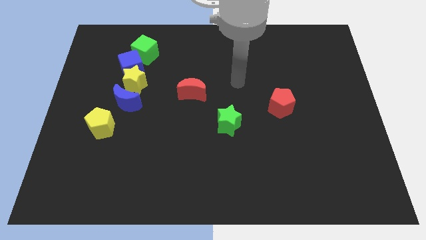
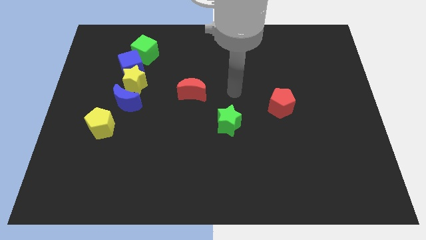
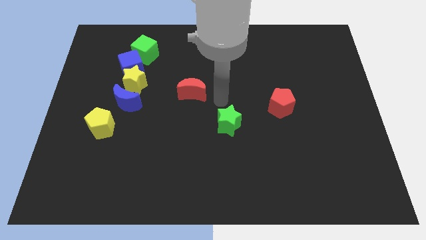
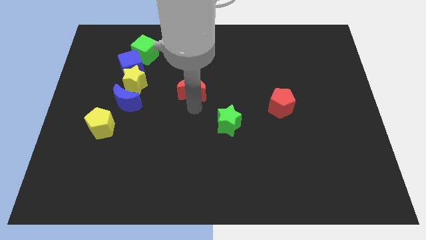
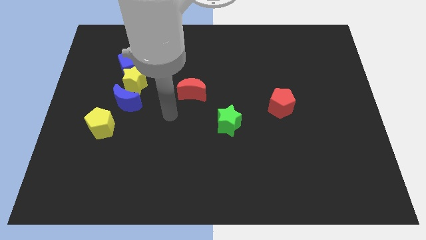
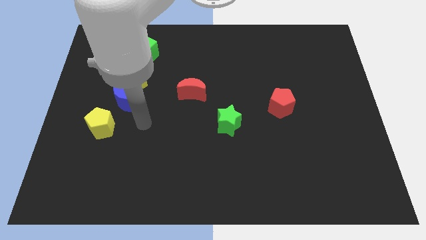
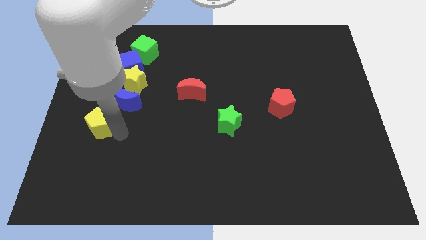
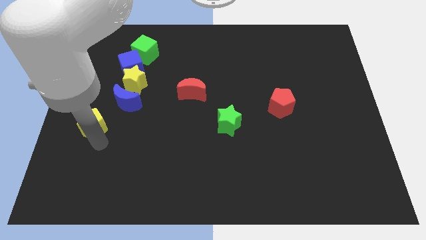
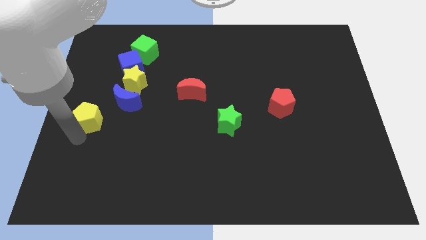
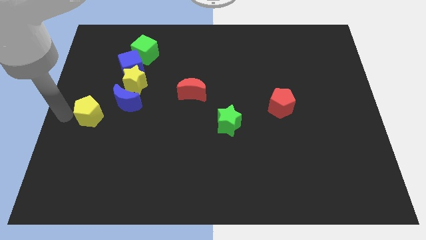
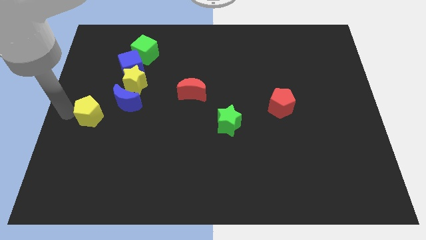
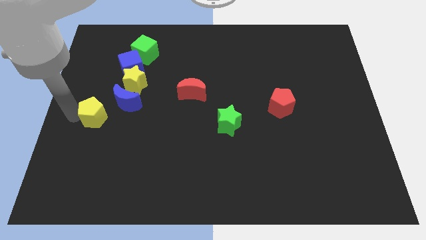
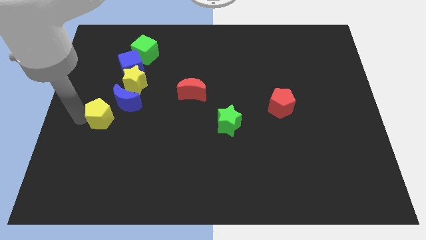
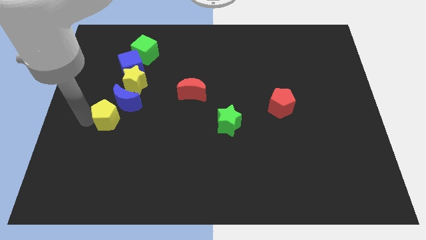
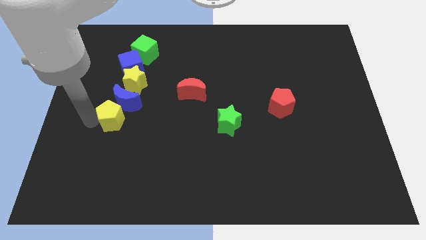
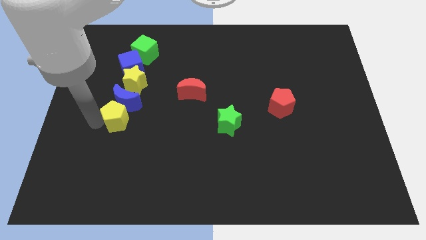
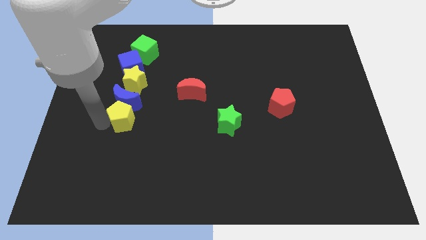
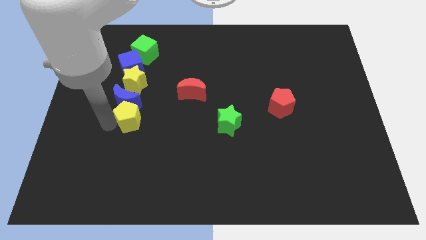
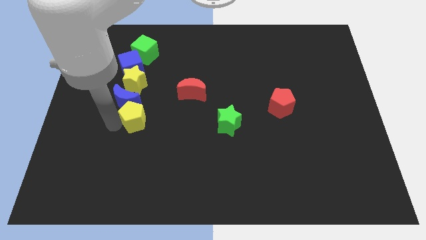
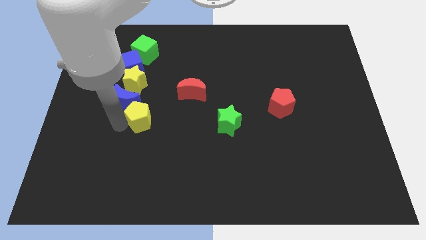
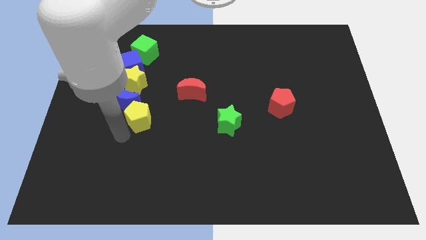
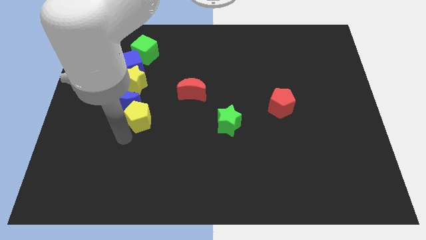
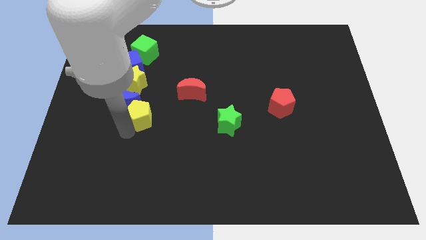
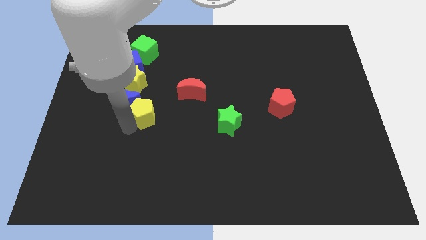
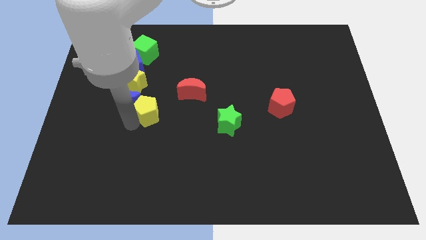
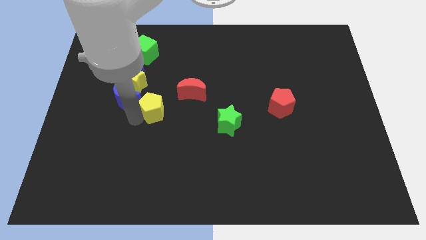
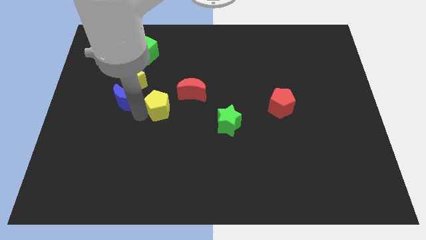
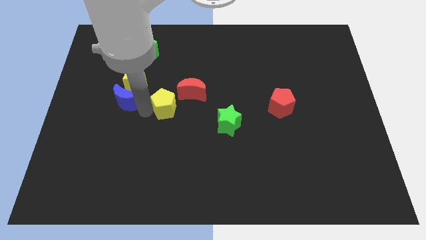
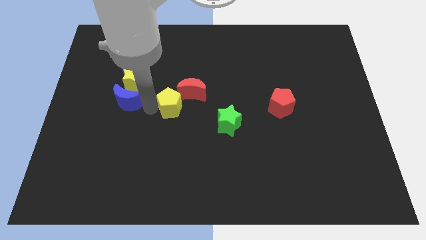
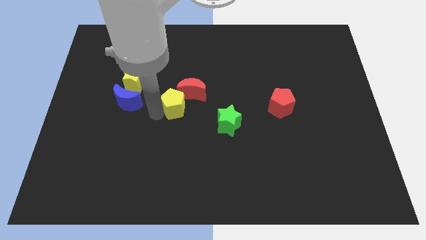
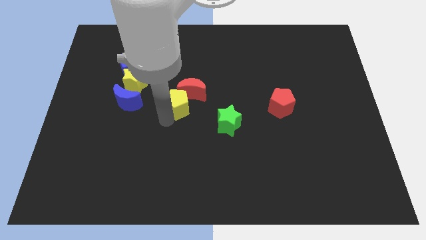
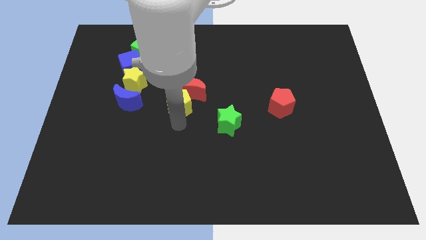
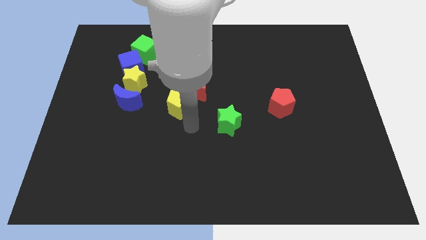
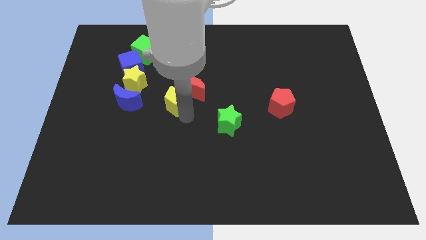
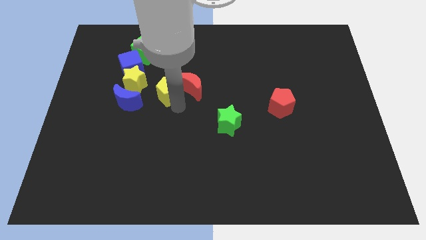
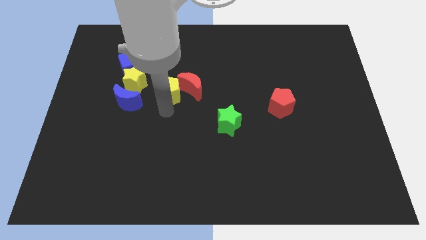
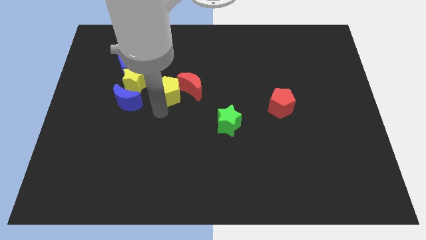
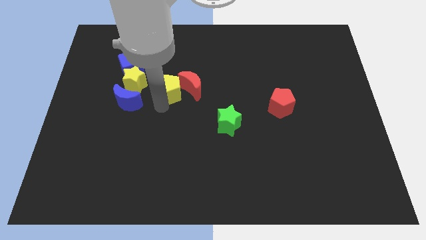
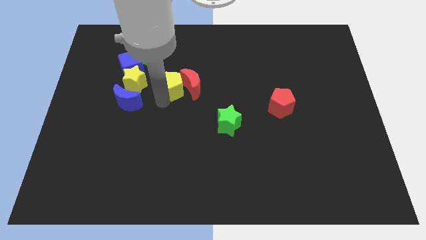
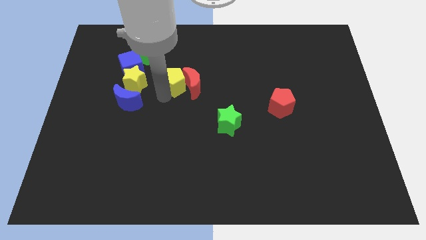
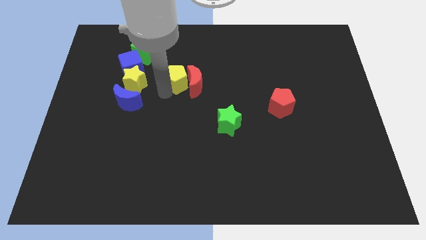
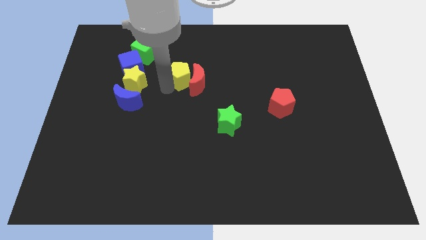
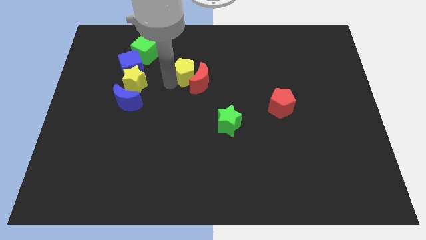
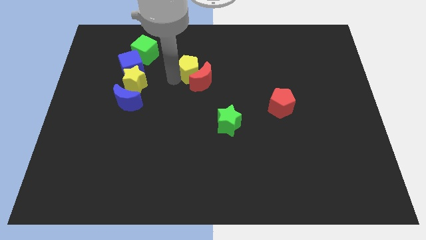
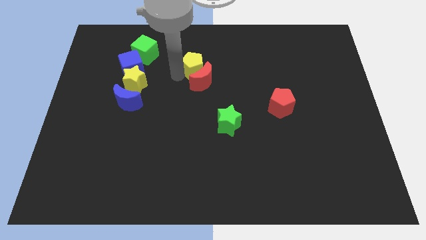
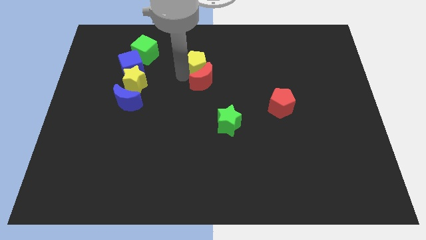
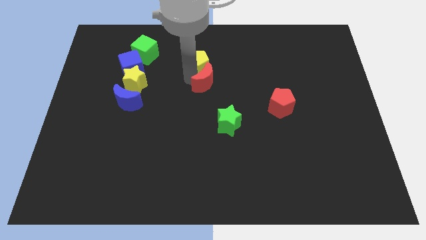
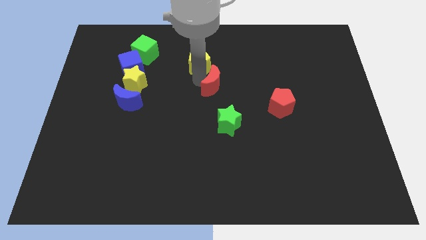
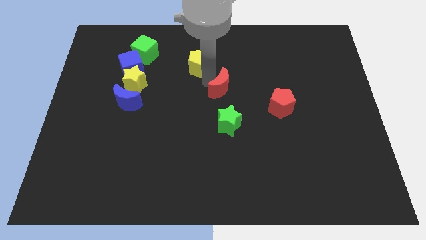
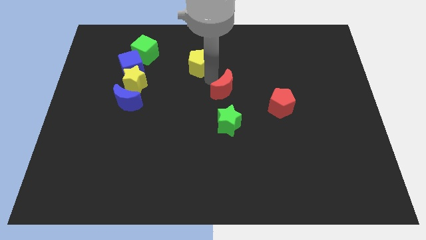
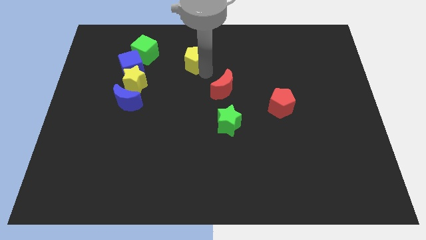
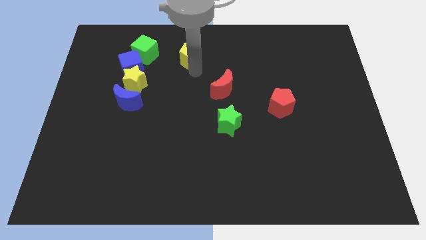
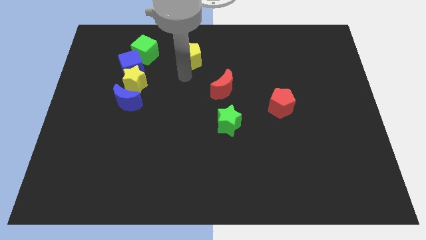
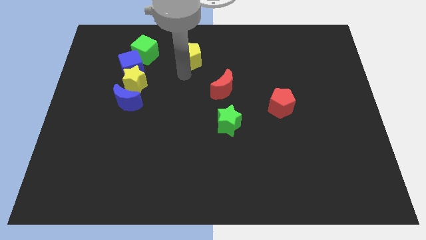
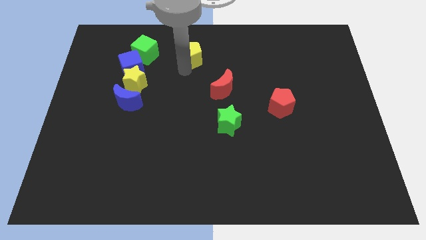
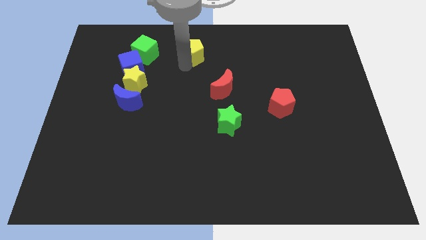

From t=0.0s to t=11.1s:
move the yellow pentagon to the top side

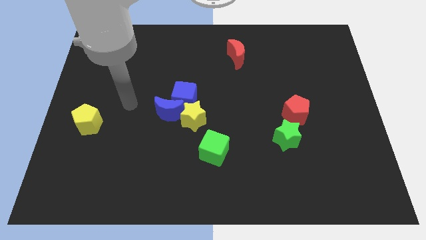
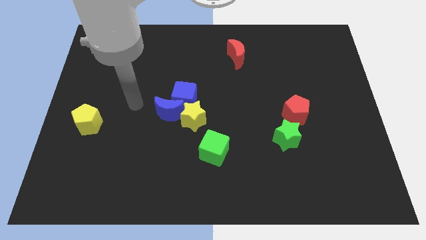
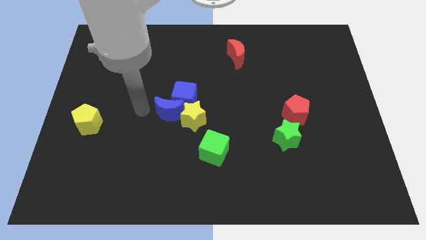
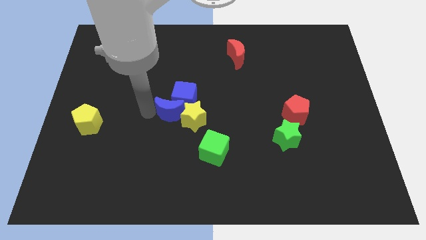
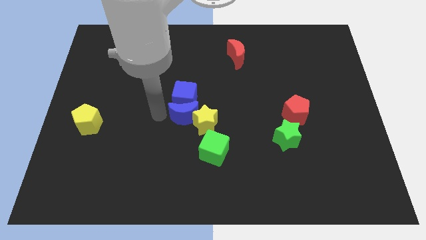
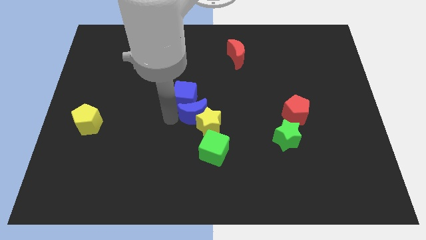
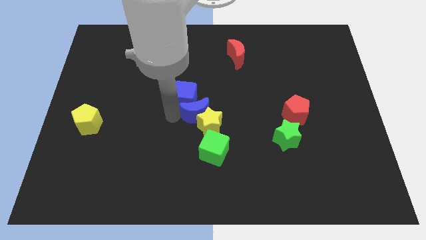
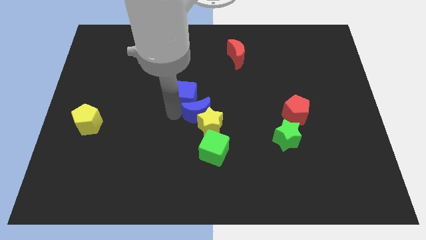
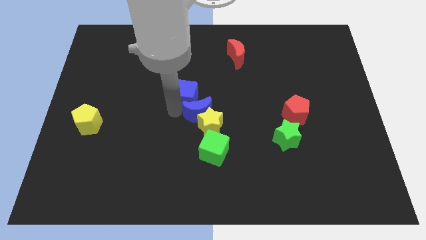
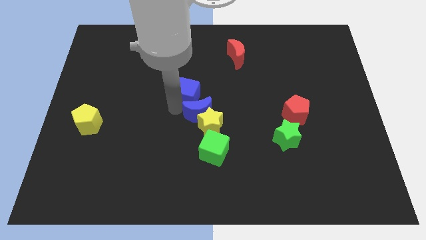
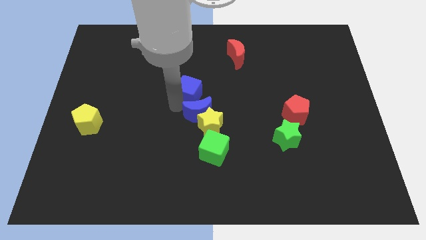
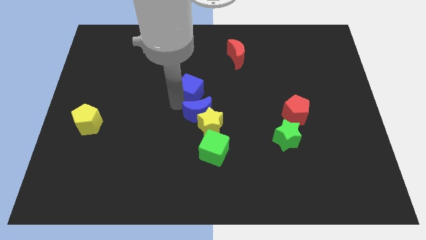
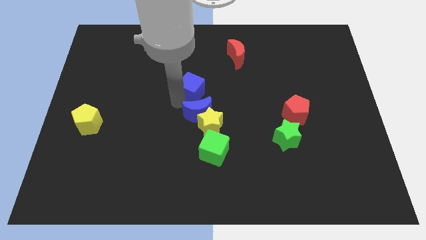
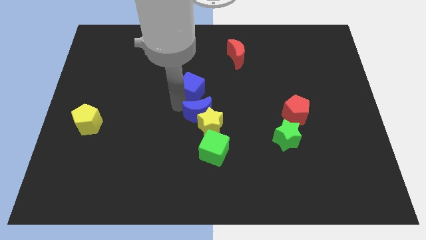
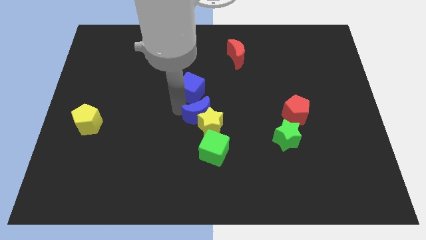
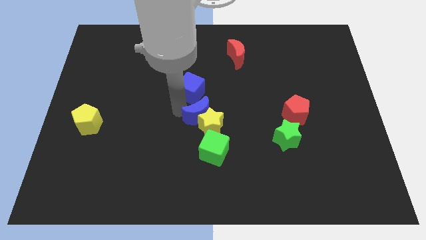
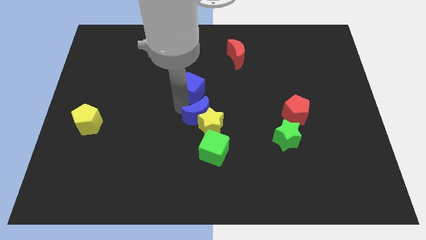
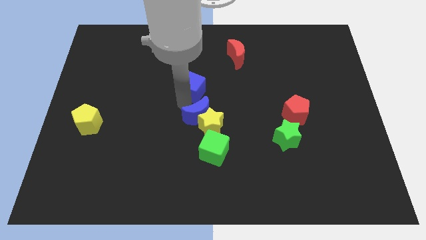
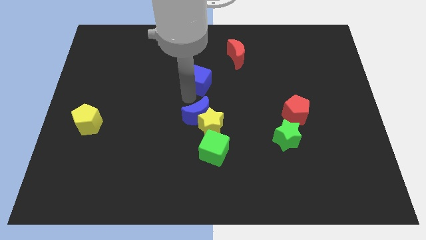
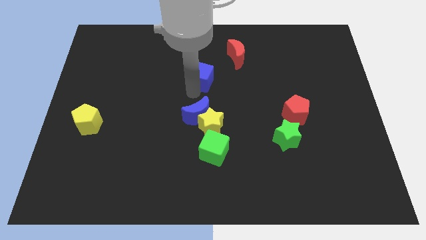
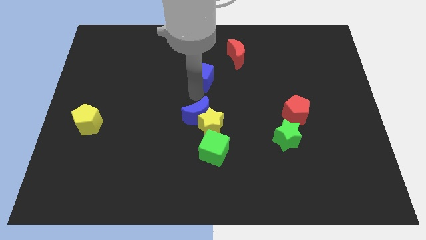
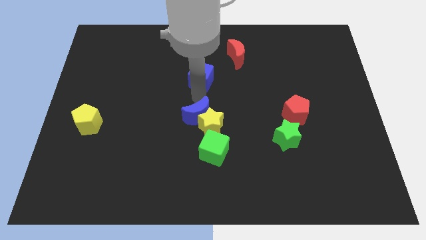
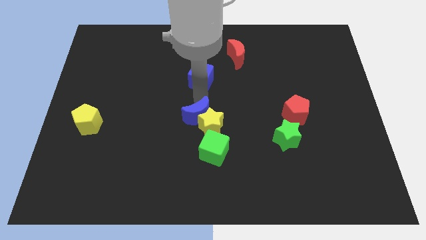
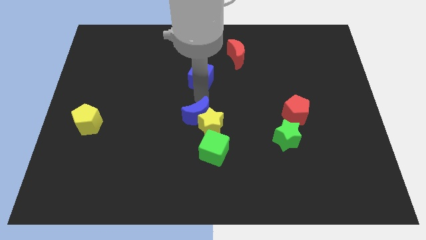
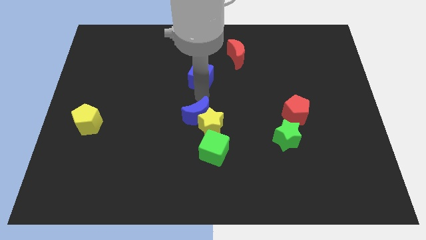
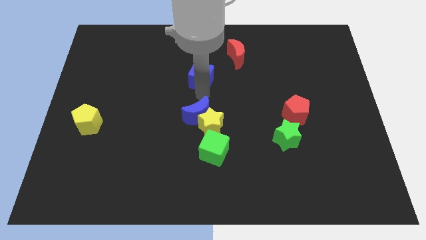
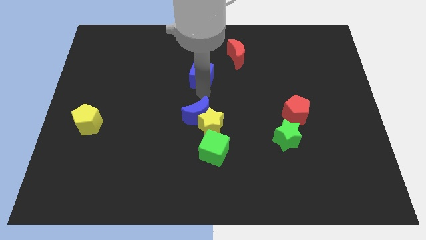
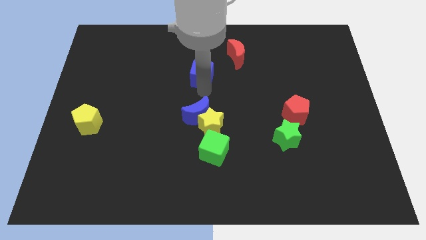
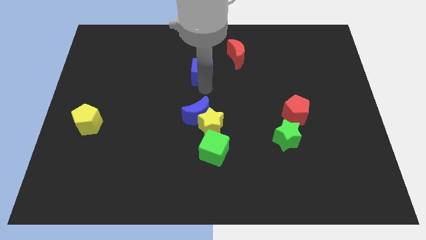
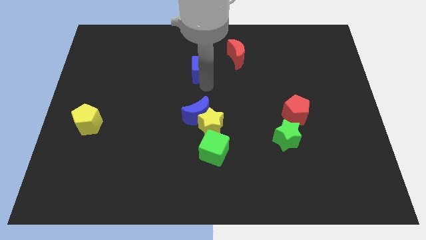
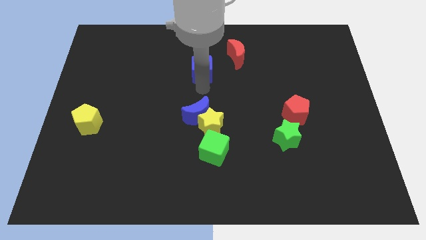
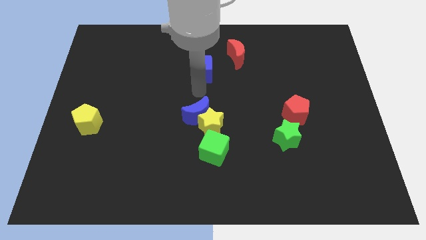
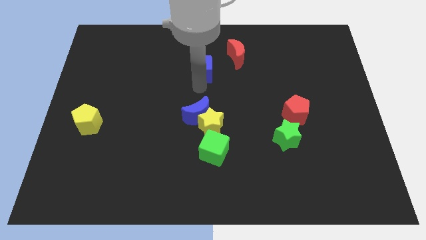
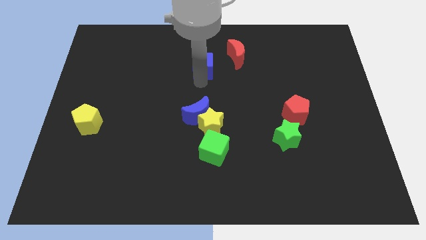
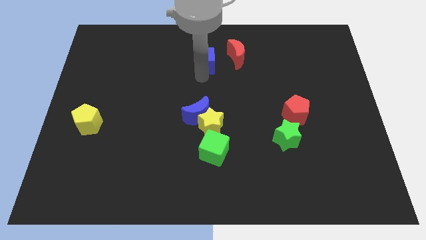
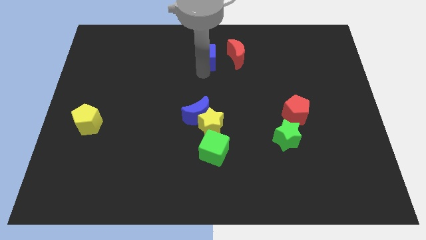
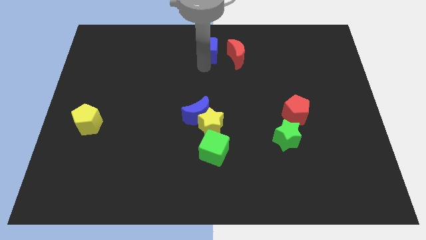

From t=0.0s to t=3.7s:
put the blue cube to the towards your base
